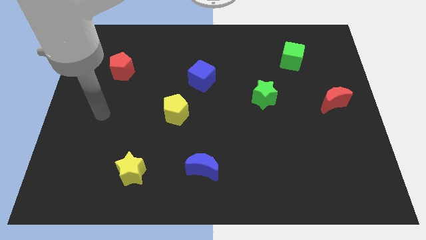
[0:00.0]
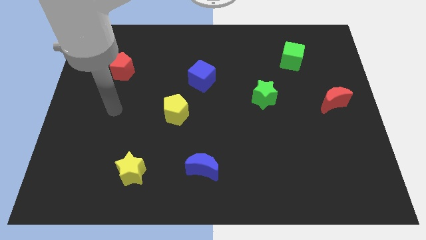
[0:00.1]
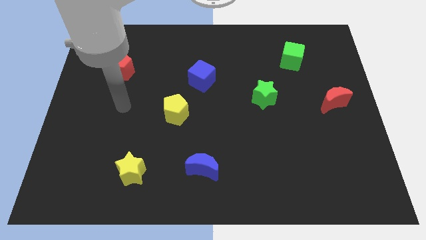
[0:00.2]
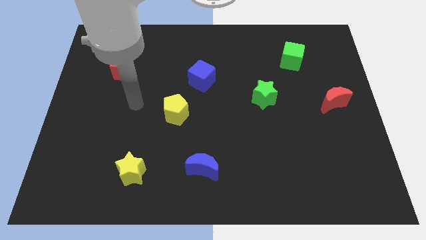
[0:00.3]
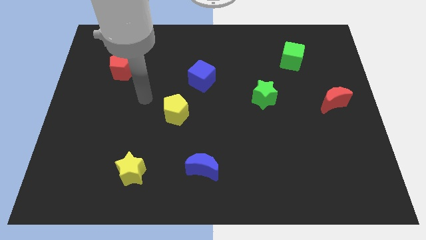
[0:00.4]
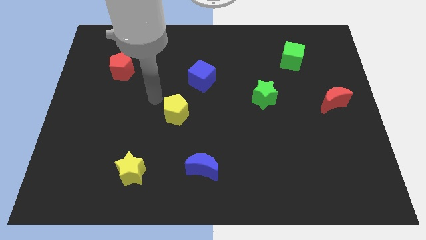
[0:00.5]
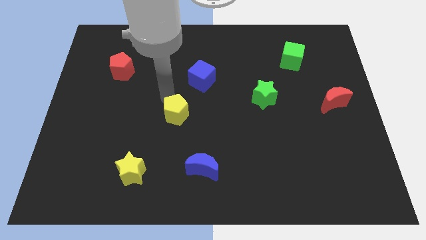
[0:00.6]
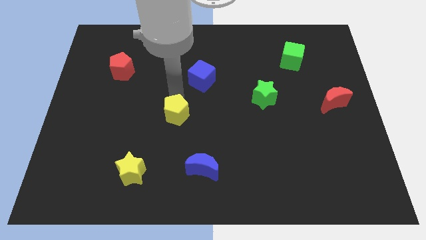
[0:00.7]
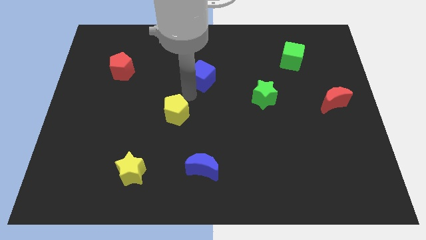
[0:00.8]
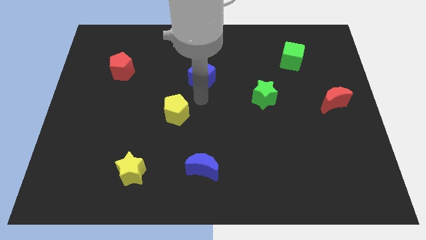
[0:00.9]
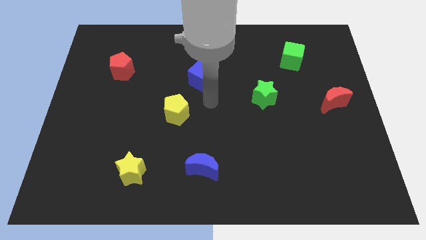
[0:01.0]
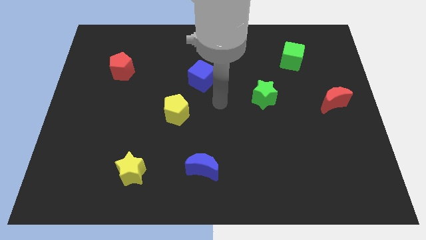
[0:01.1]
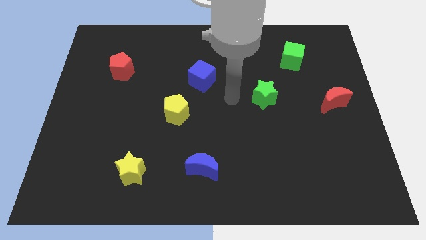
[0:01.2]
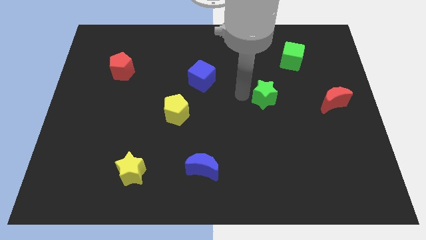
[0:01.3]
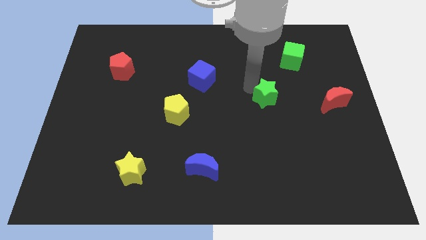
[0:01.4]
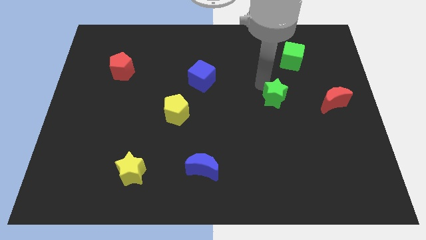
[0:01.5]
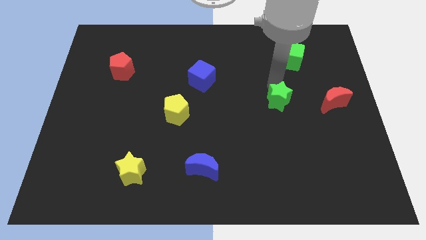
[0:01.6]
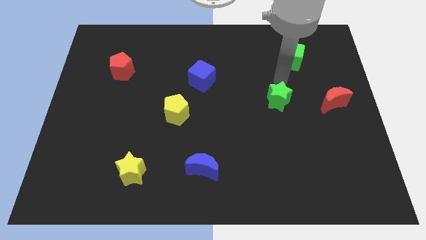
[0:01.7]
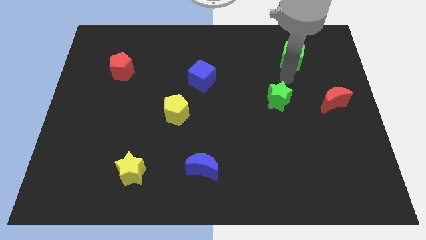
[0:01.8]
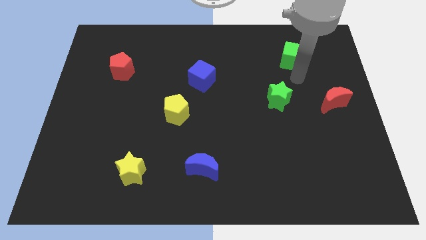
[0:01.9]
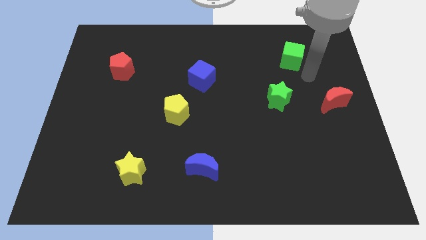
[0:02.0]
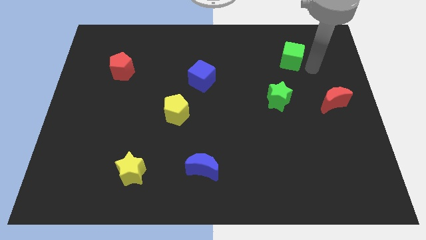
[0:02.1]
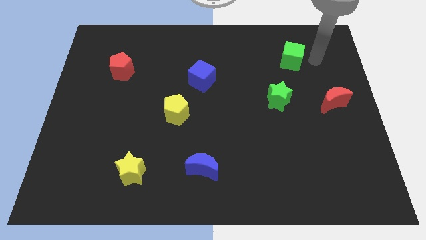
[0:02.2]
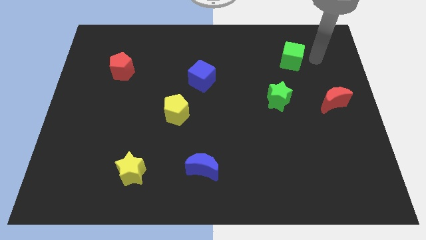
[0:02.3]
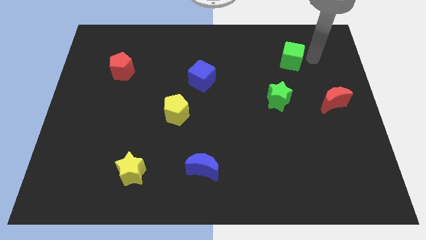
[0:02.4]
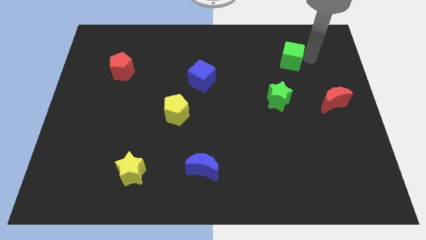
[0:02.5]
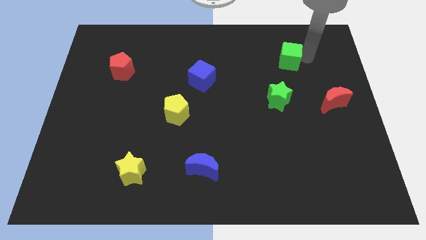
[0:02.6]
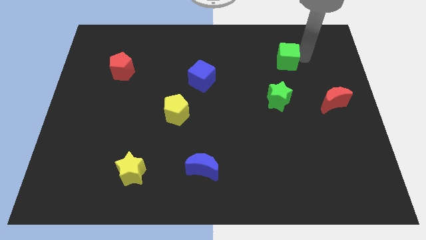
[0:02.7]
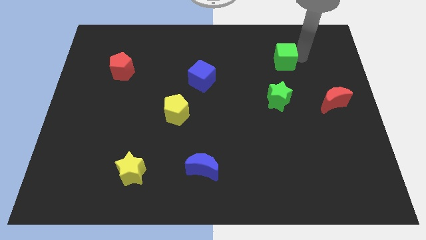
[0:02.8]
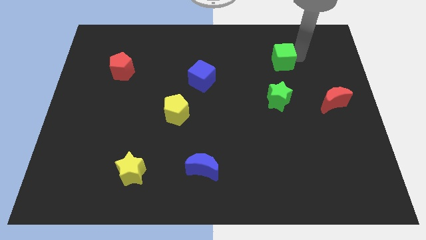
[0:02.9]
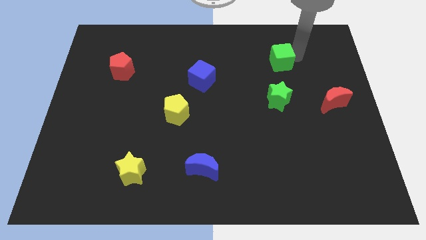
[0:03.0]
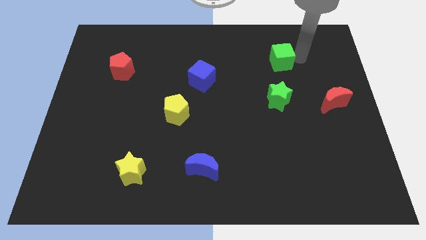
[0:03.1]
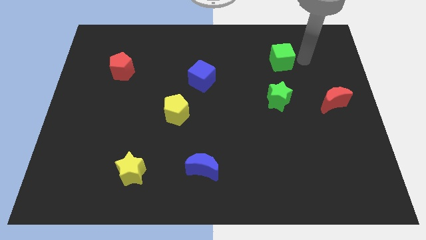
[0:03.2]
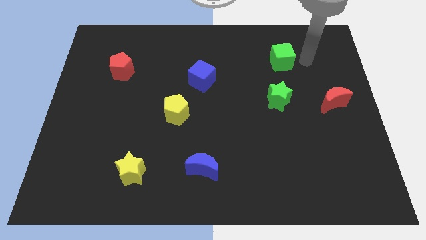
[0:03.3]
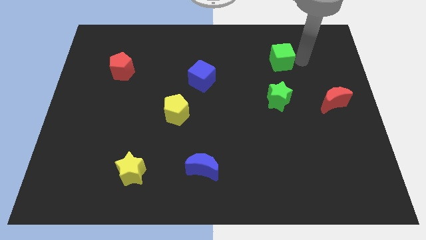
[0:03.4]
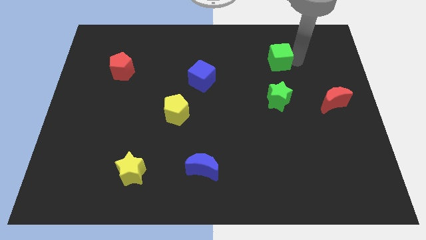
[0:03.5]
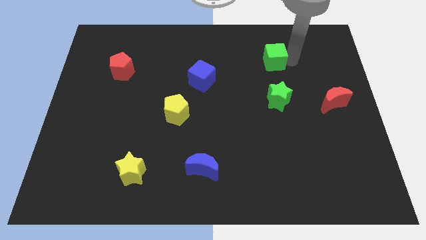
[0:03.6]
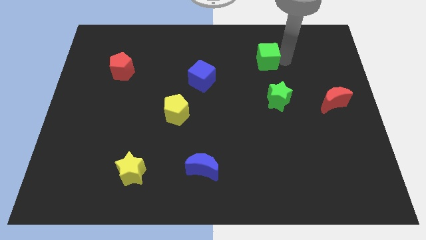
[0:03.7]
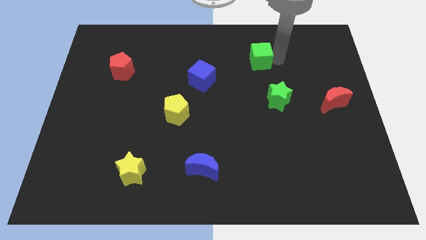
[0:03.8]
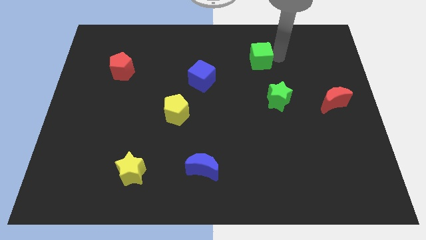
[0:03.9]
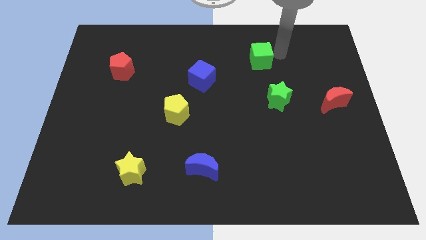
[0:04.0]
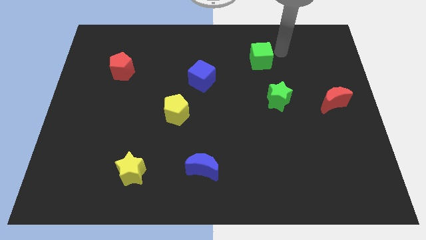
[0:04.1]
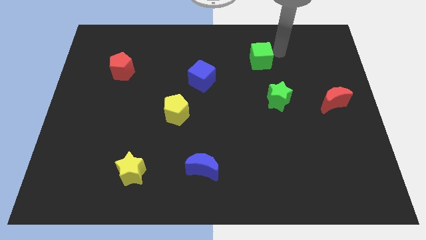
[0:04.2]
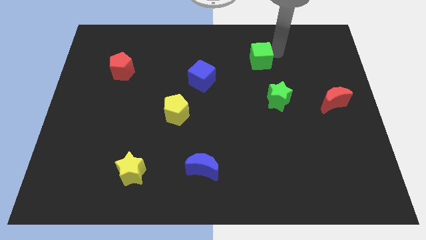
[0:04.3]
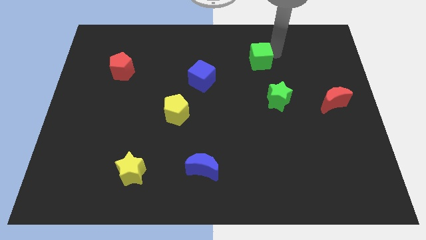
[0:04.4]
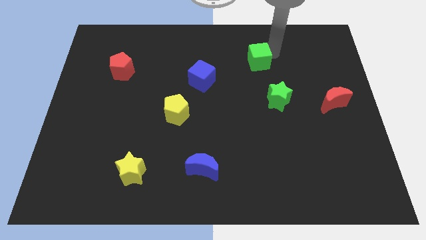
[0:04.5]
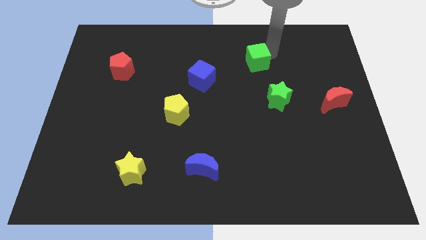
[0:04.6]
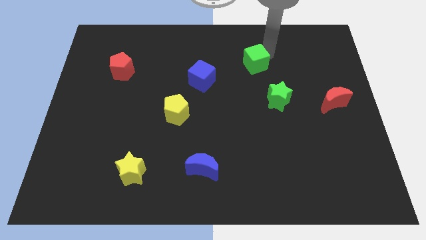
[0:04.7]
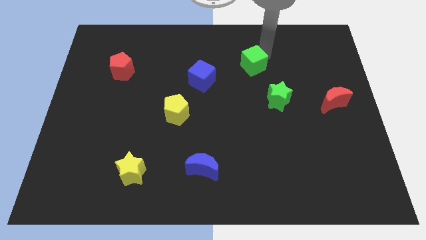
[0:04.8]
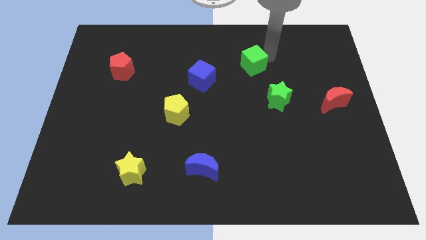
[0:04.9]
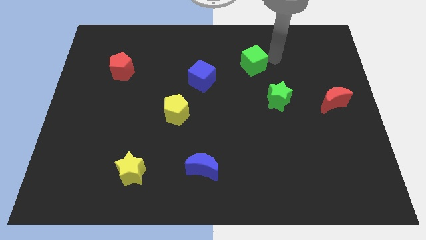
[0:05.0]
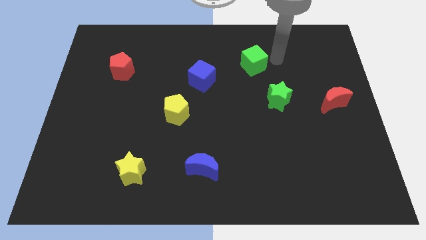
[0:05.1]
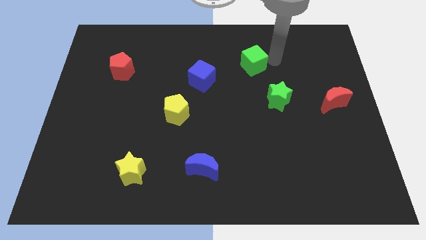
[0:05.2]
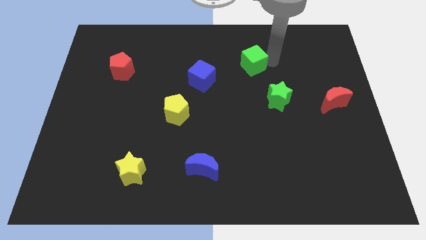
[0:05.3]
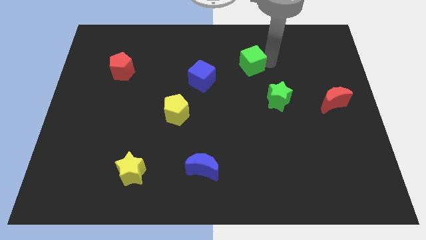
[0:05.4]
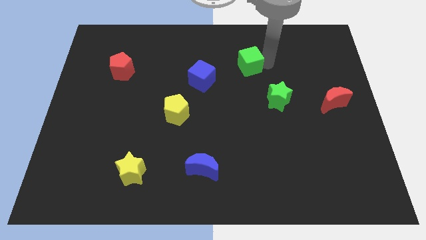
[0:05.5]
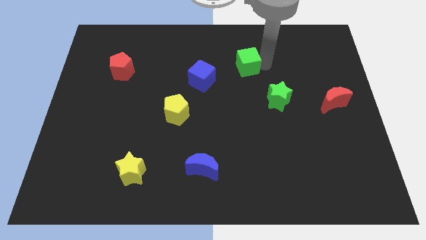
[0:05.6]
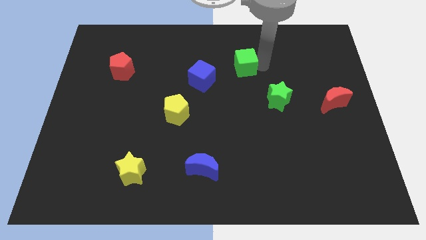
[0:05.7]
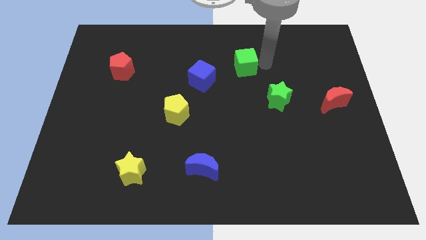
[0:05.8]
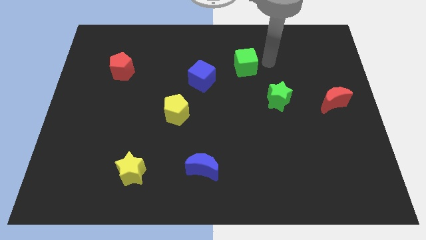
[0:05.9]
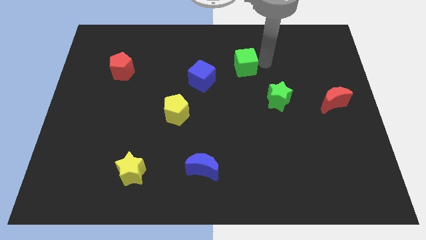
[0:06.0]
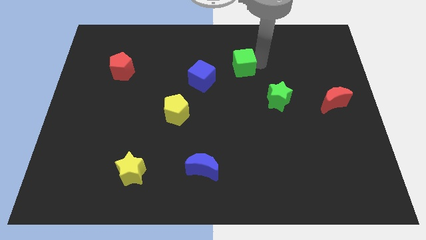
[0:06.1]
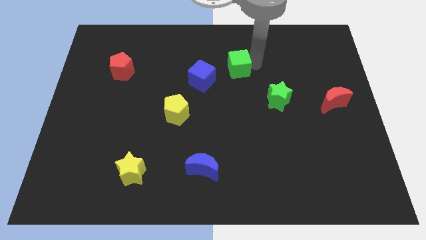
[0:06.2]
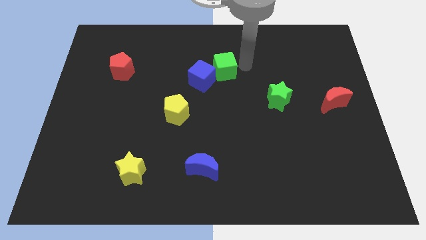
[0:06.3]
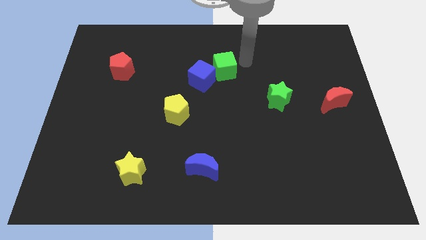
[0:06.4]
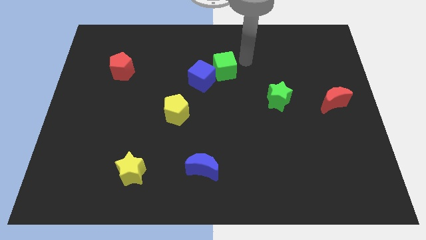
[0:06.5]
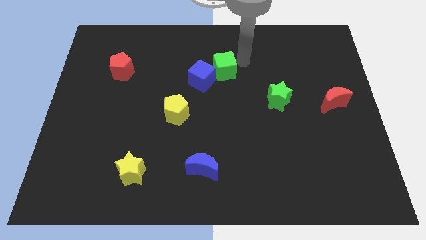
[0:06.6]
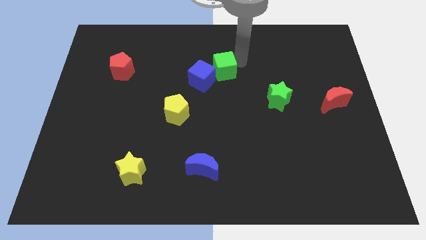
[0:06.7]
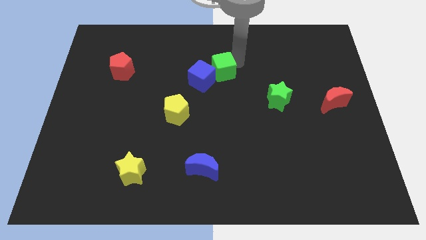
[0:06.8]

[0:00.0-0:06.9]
put the green cube next to the blue cube
